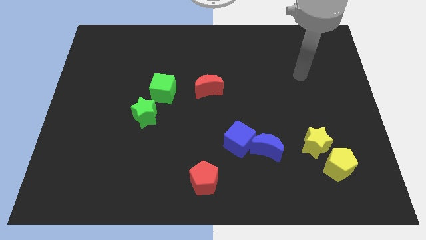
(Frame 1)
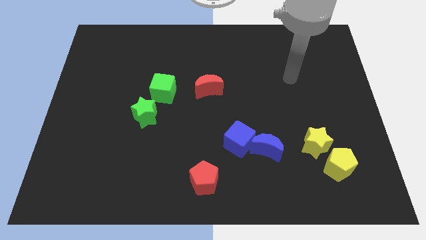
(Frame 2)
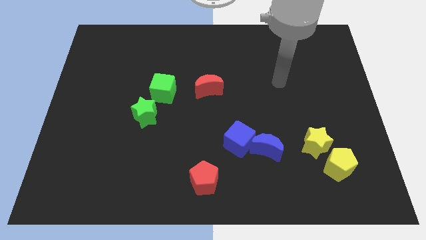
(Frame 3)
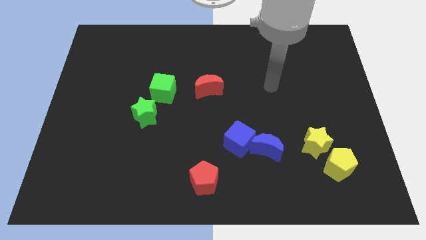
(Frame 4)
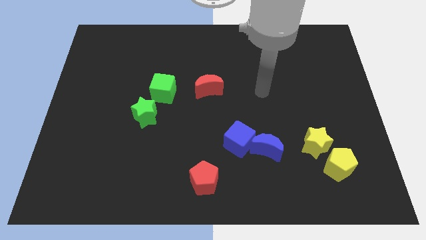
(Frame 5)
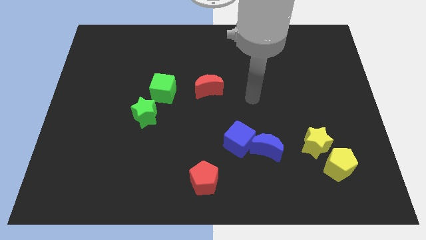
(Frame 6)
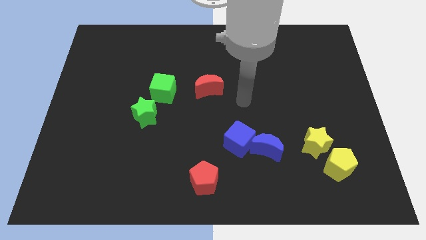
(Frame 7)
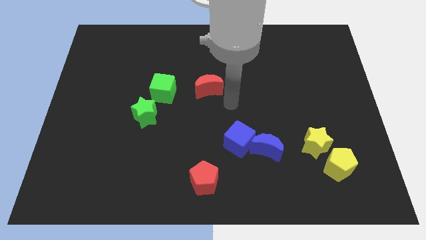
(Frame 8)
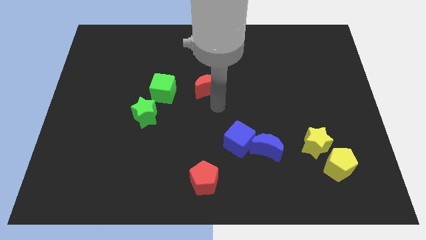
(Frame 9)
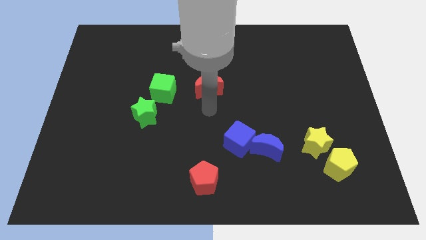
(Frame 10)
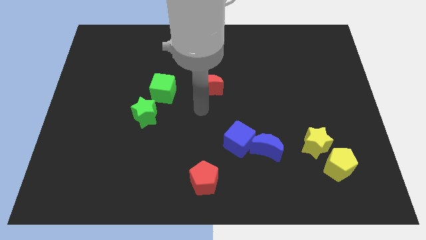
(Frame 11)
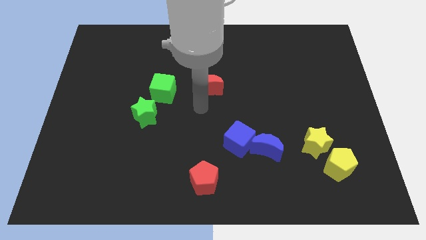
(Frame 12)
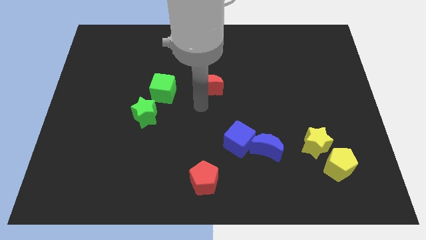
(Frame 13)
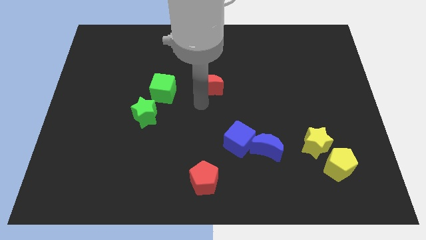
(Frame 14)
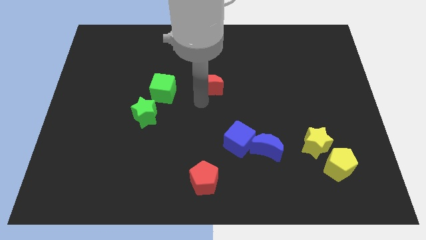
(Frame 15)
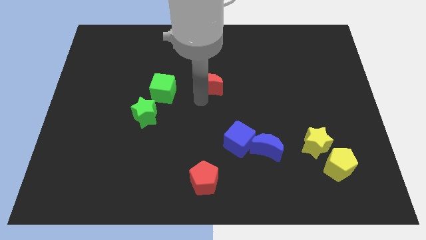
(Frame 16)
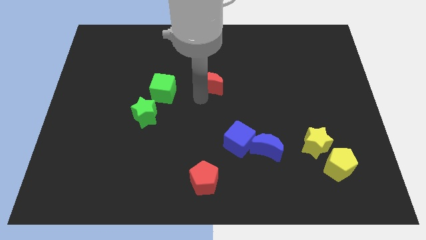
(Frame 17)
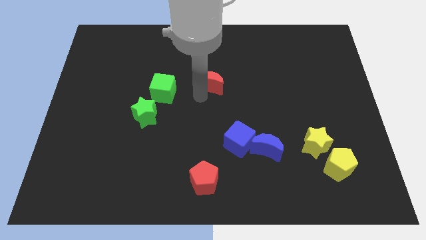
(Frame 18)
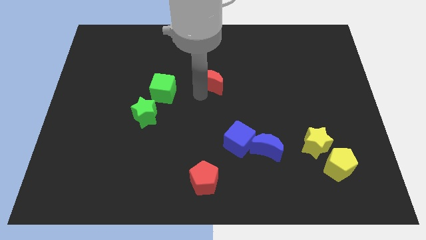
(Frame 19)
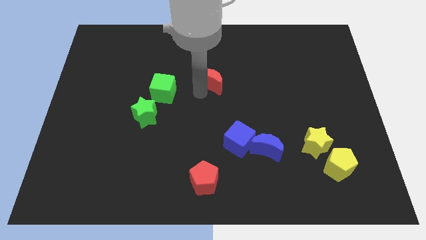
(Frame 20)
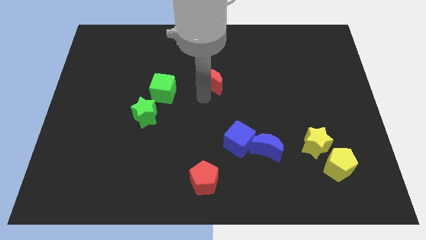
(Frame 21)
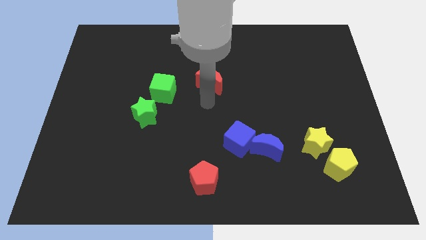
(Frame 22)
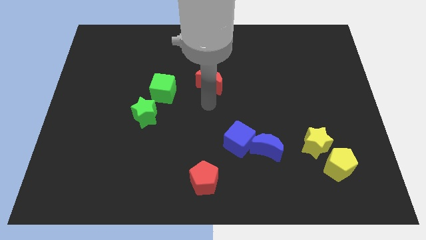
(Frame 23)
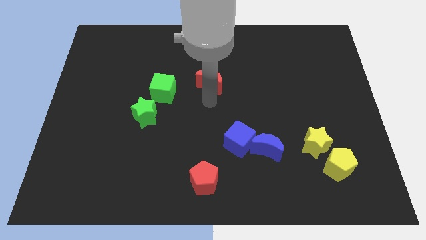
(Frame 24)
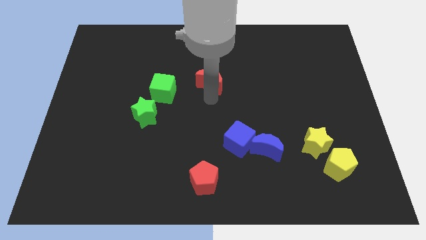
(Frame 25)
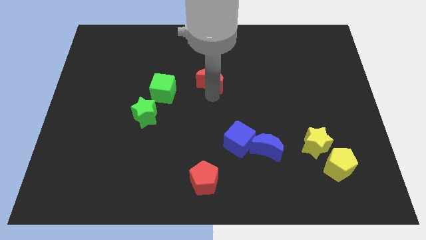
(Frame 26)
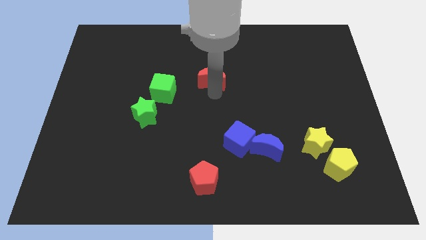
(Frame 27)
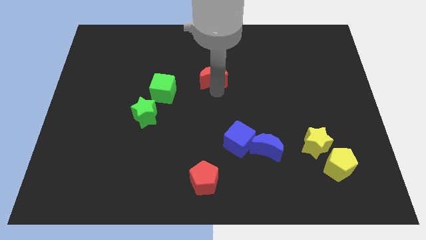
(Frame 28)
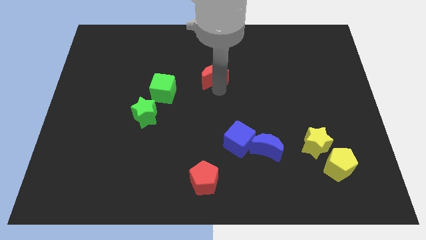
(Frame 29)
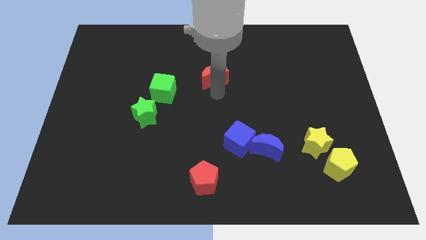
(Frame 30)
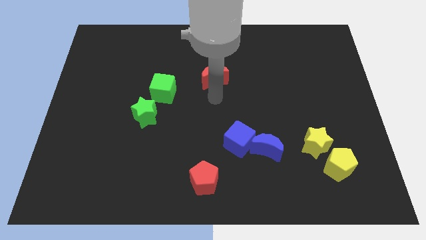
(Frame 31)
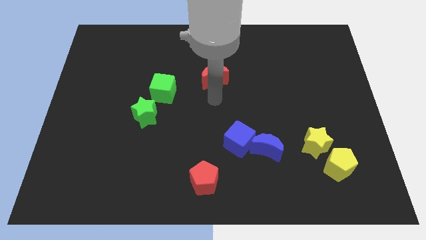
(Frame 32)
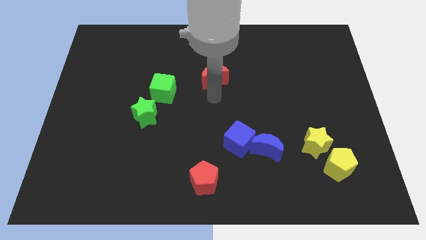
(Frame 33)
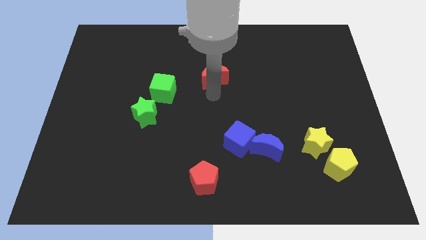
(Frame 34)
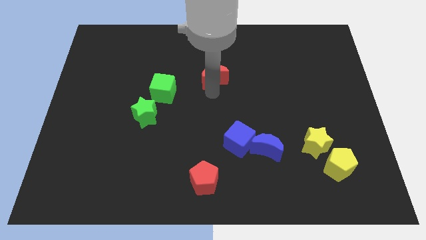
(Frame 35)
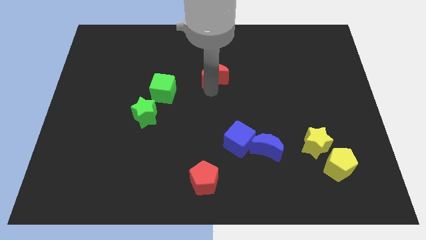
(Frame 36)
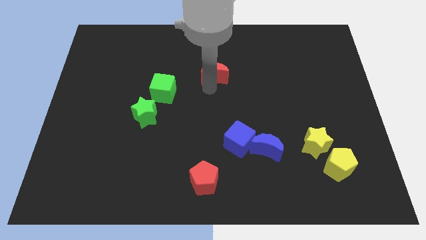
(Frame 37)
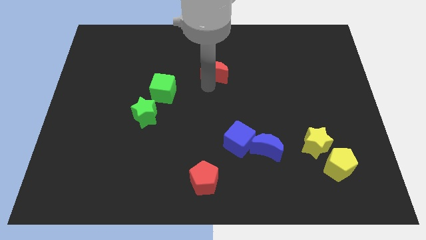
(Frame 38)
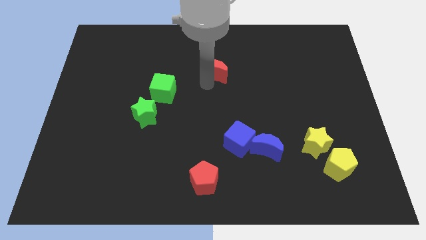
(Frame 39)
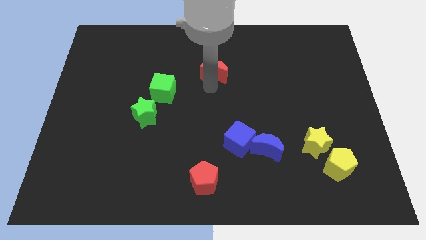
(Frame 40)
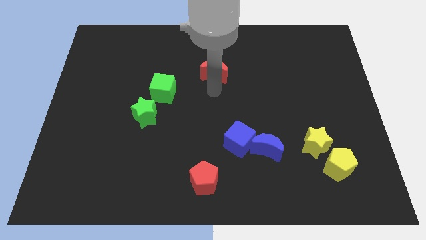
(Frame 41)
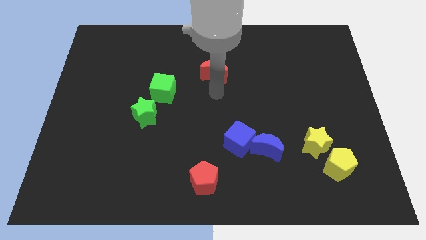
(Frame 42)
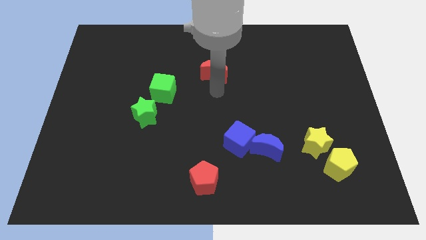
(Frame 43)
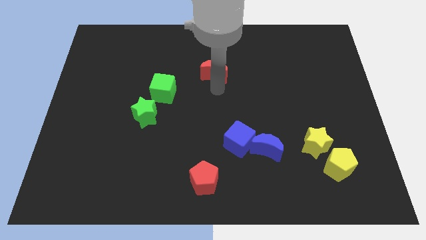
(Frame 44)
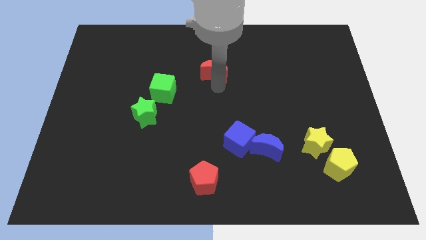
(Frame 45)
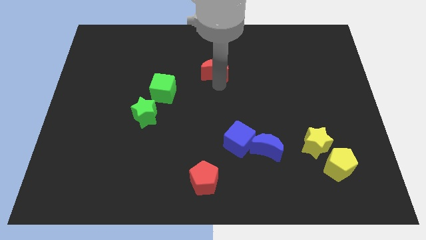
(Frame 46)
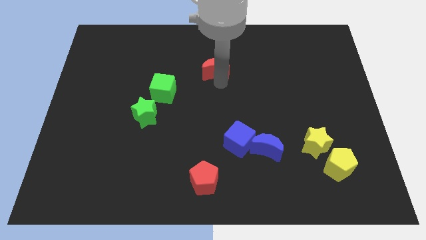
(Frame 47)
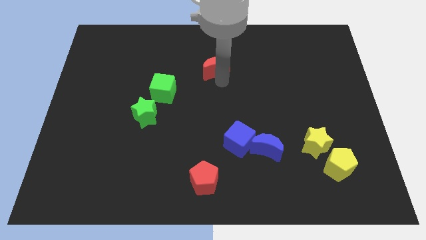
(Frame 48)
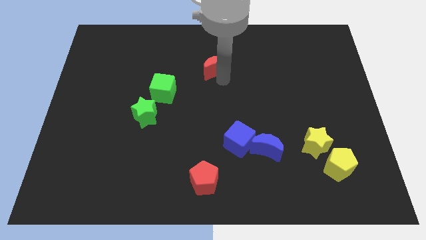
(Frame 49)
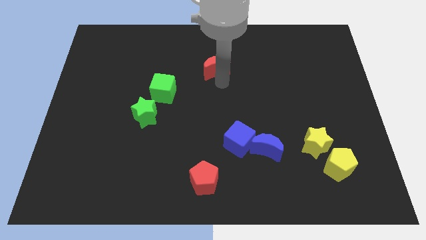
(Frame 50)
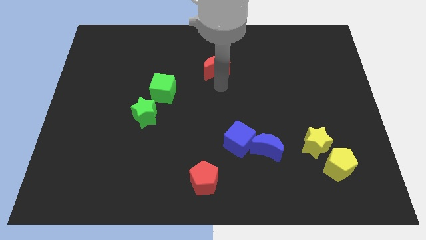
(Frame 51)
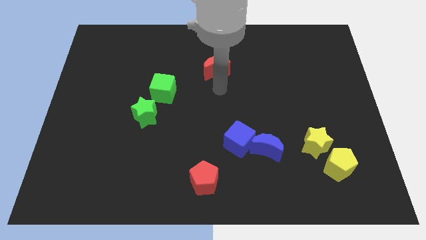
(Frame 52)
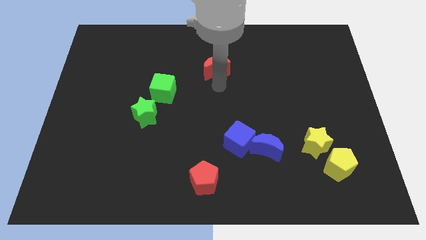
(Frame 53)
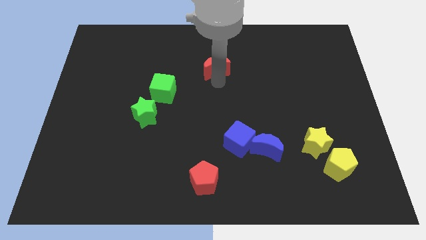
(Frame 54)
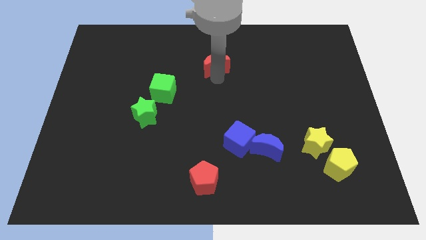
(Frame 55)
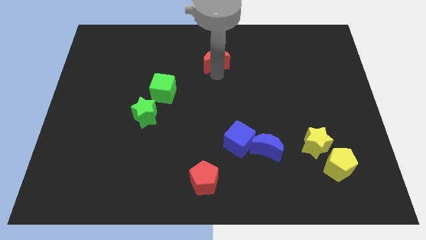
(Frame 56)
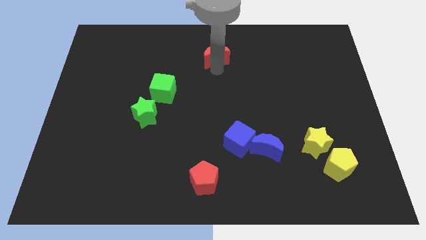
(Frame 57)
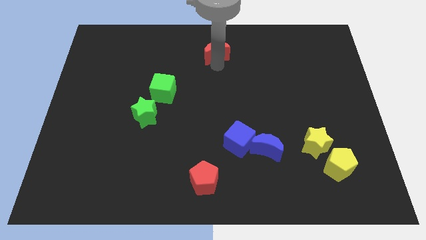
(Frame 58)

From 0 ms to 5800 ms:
put the red moon to the top

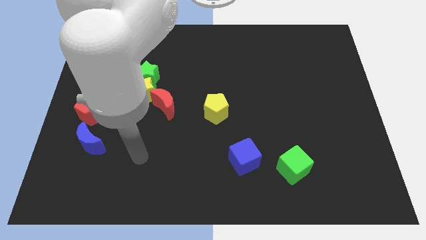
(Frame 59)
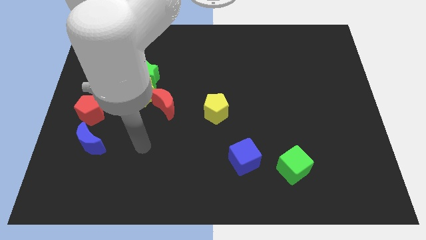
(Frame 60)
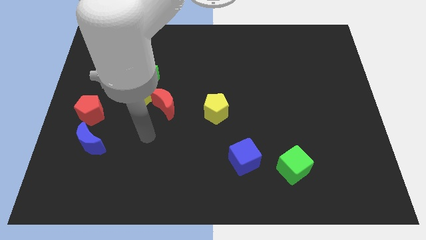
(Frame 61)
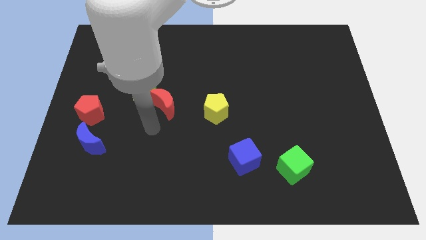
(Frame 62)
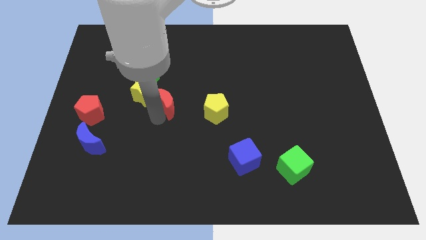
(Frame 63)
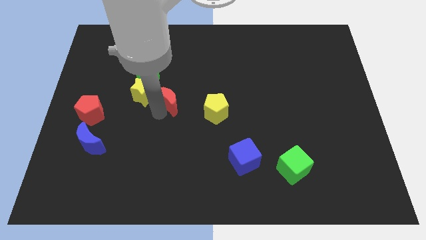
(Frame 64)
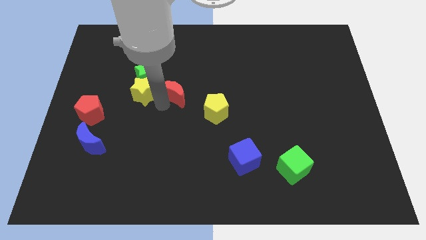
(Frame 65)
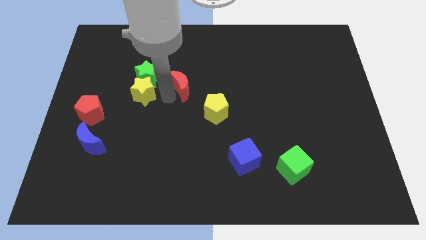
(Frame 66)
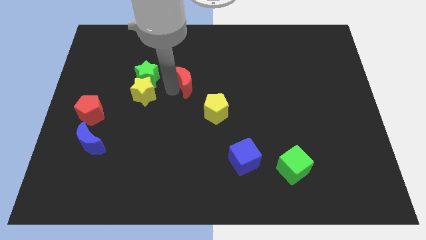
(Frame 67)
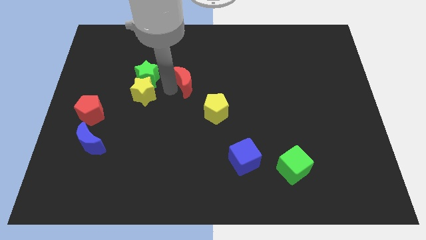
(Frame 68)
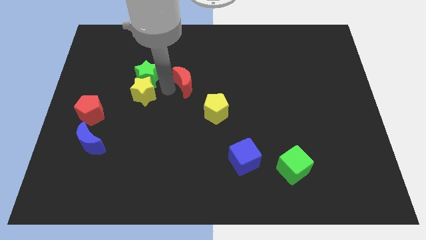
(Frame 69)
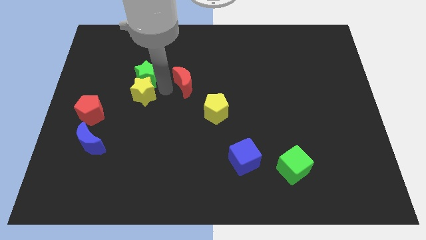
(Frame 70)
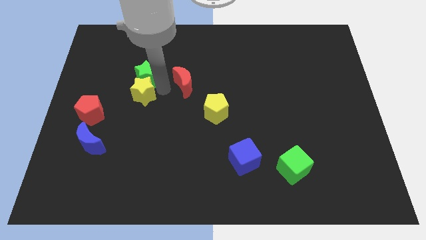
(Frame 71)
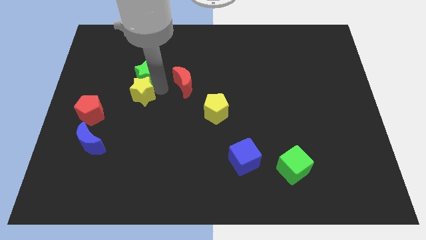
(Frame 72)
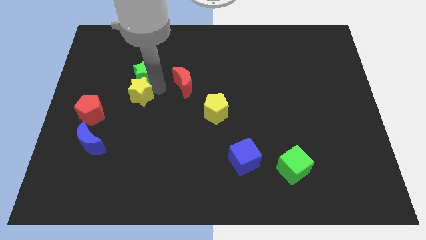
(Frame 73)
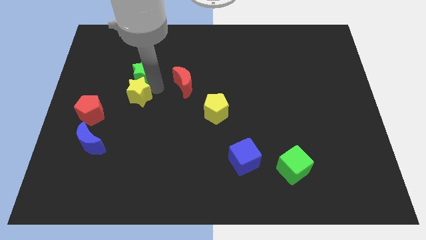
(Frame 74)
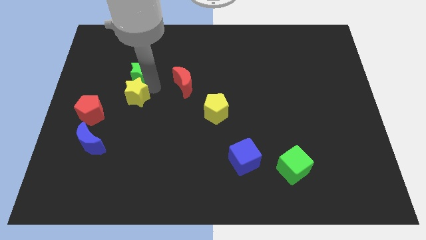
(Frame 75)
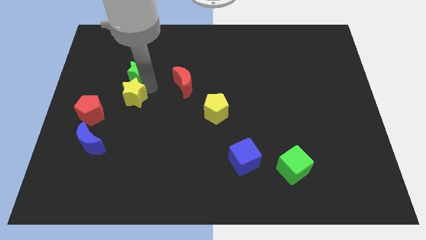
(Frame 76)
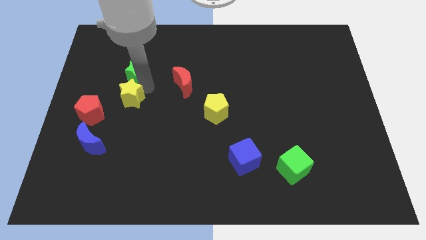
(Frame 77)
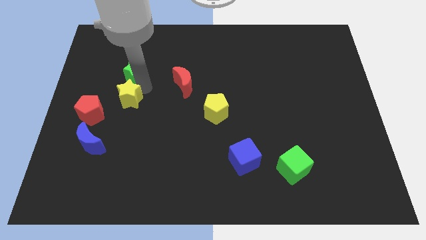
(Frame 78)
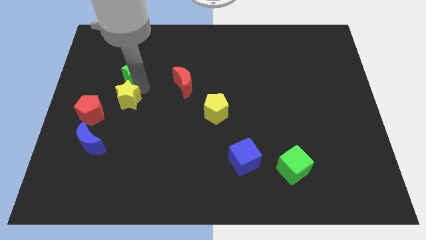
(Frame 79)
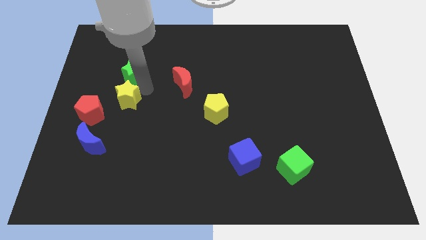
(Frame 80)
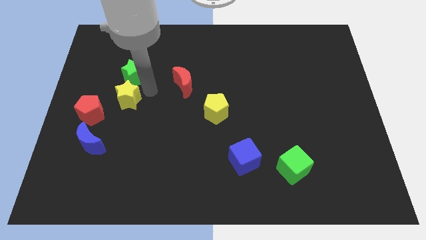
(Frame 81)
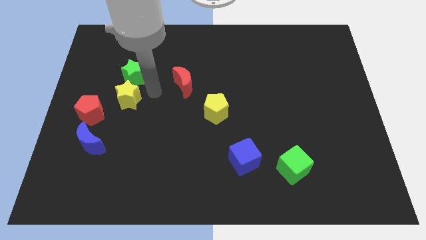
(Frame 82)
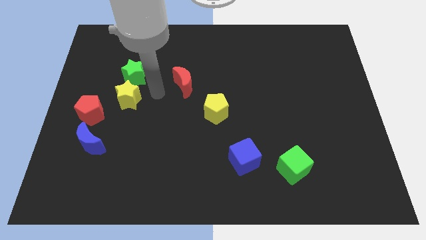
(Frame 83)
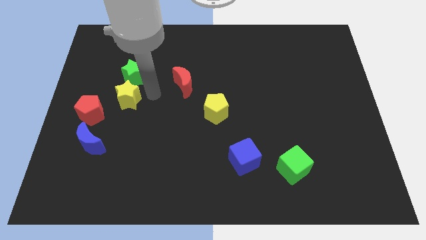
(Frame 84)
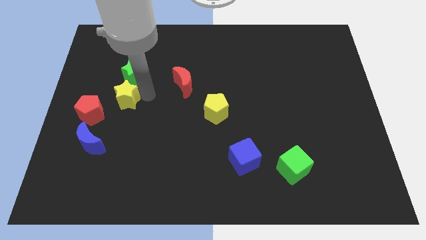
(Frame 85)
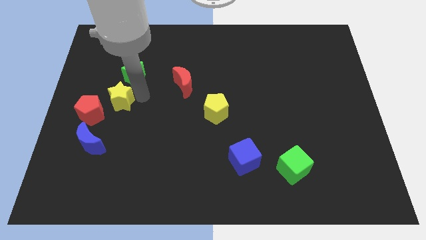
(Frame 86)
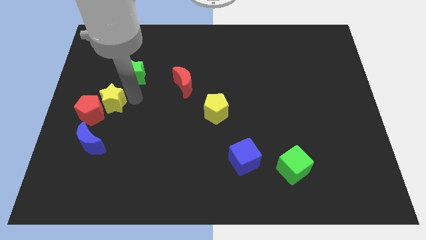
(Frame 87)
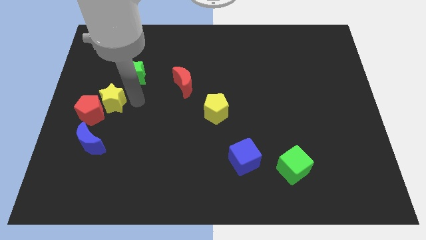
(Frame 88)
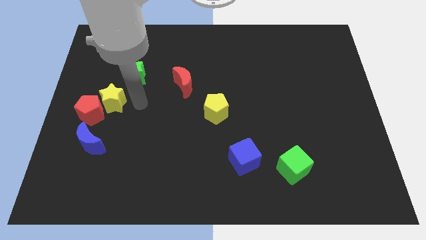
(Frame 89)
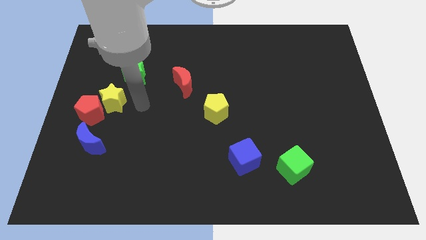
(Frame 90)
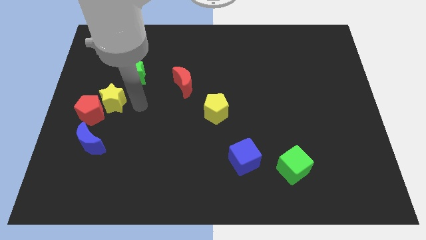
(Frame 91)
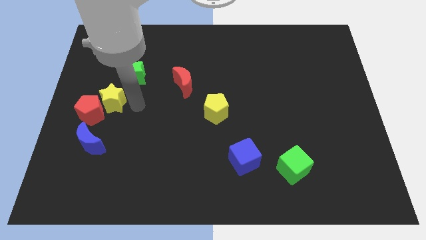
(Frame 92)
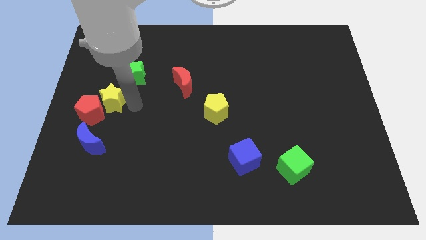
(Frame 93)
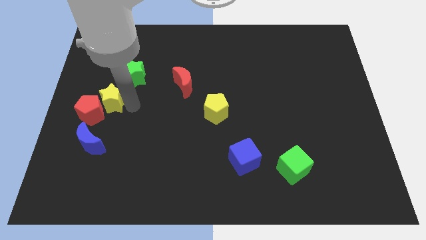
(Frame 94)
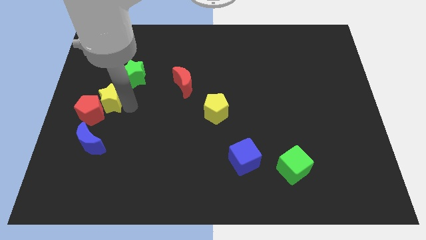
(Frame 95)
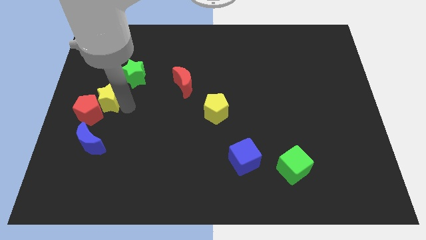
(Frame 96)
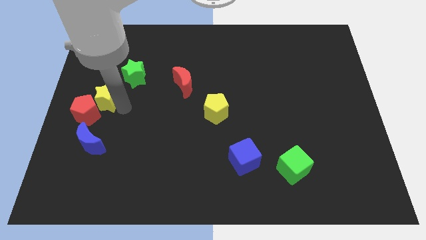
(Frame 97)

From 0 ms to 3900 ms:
slide the yellow star to the left side of the board
